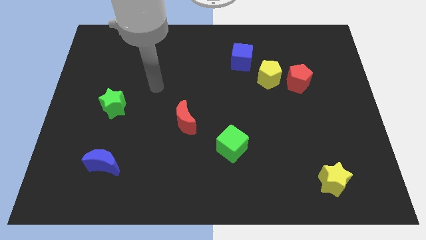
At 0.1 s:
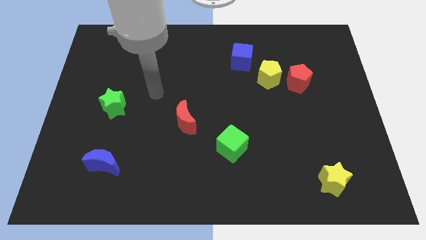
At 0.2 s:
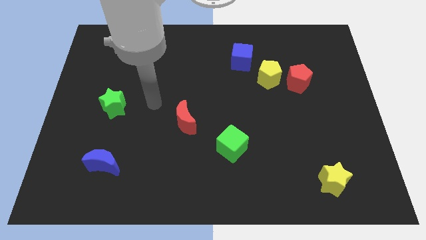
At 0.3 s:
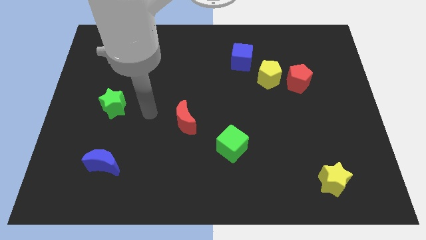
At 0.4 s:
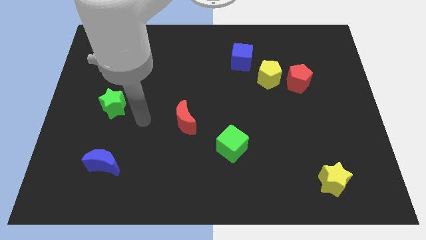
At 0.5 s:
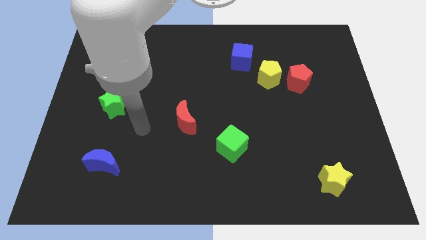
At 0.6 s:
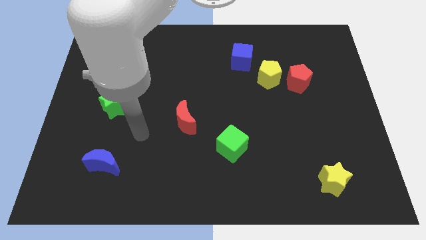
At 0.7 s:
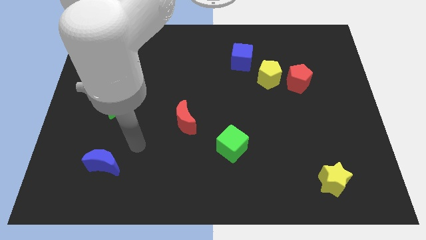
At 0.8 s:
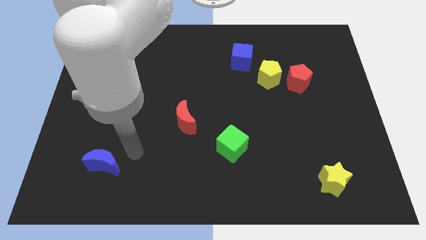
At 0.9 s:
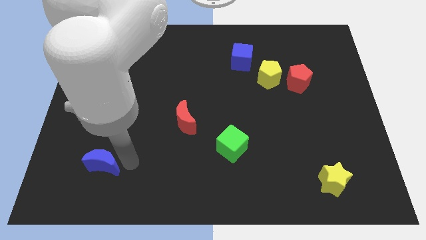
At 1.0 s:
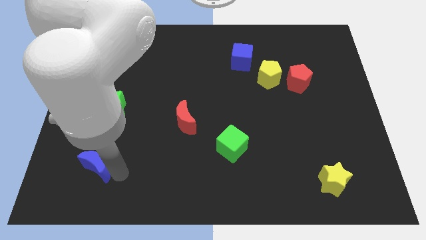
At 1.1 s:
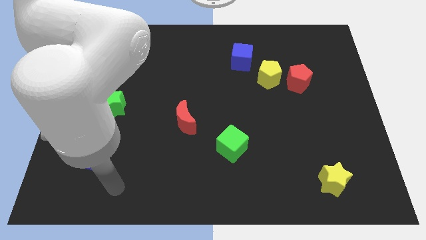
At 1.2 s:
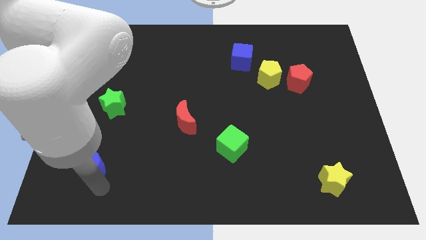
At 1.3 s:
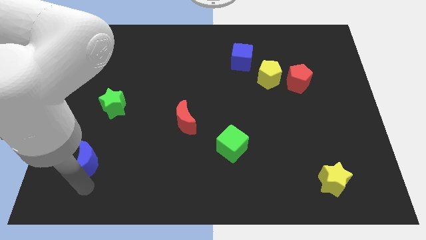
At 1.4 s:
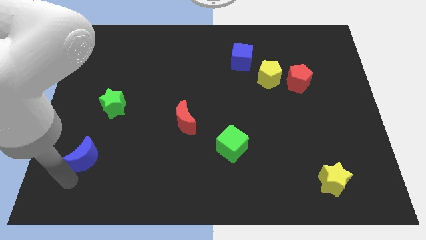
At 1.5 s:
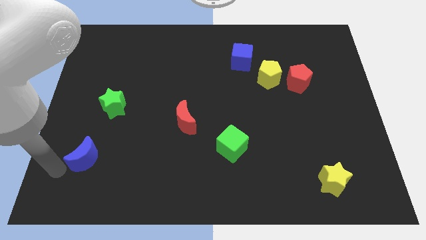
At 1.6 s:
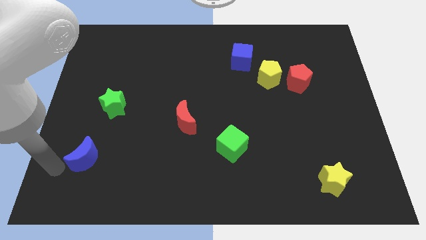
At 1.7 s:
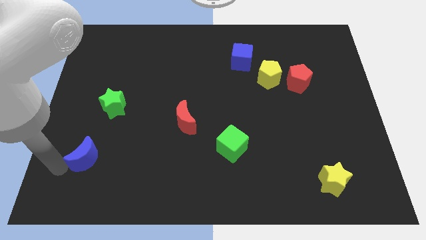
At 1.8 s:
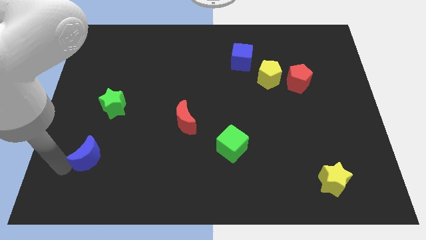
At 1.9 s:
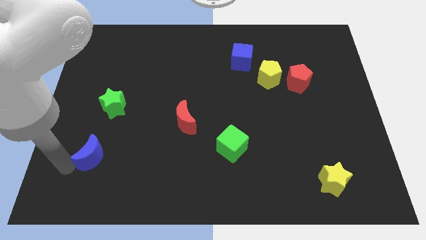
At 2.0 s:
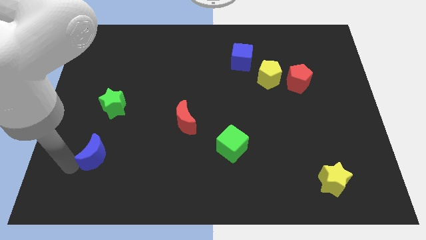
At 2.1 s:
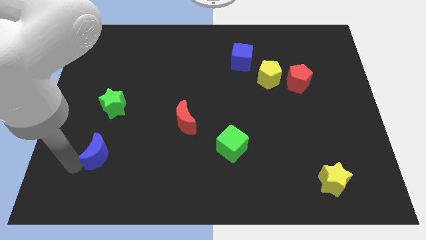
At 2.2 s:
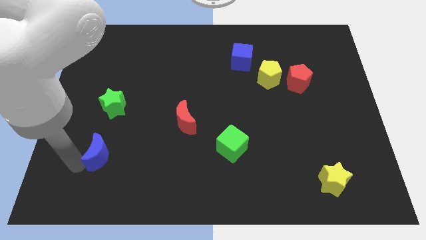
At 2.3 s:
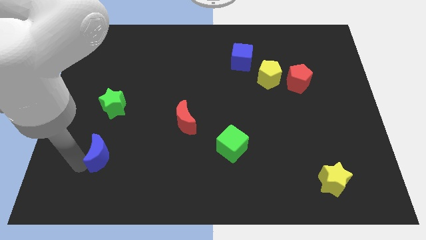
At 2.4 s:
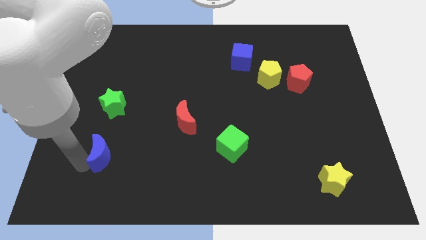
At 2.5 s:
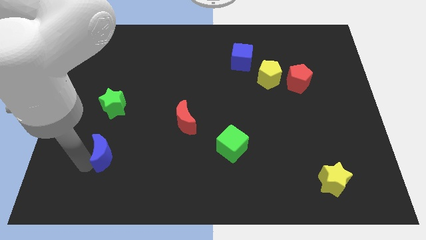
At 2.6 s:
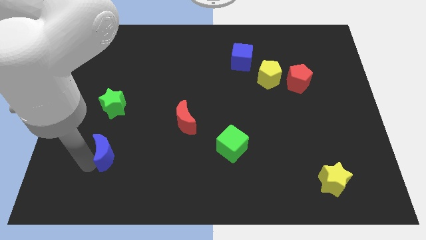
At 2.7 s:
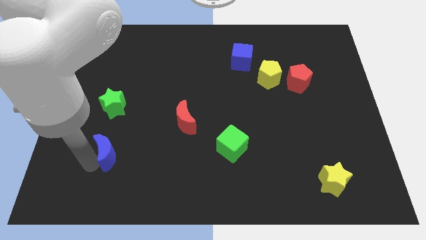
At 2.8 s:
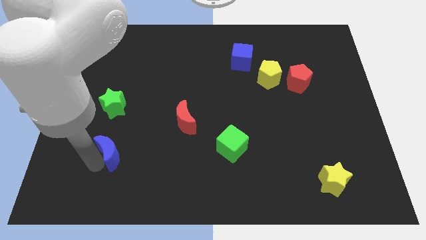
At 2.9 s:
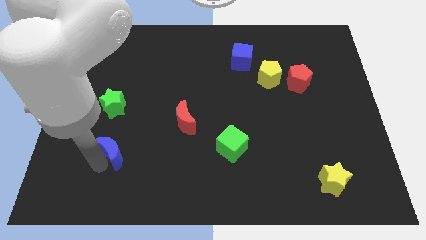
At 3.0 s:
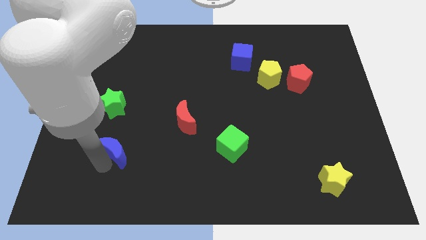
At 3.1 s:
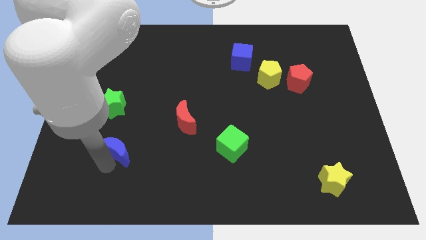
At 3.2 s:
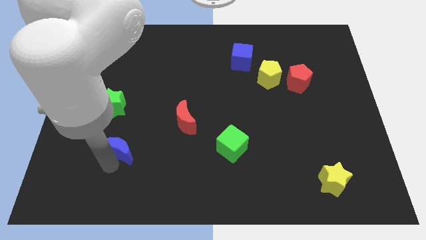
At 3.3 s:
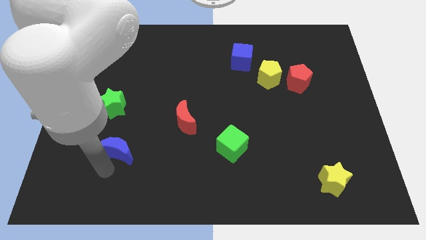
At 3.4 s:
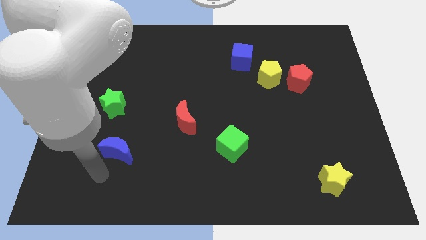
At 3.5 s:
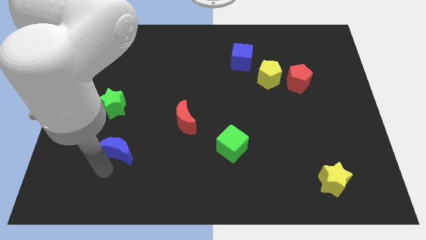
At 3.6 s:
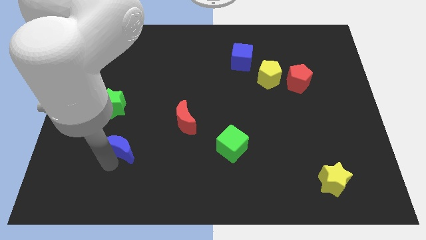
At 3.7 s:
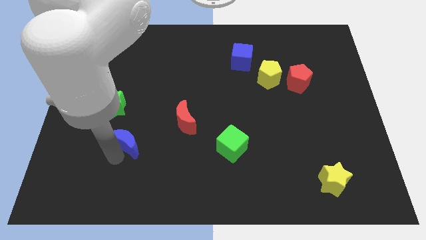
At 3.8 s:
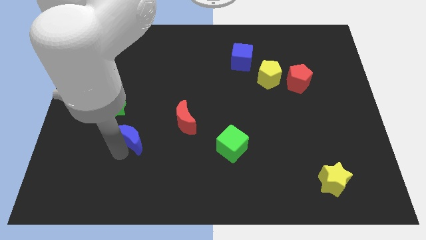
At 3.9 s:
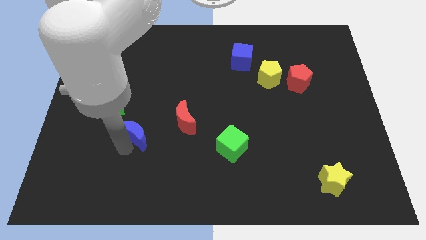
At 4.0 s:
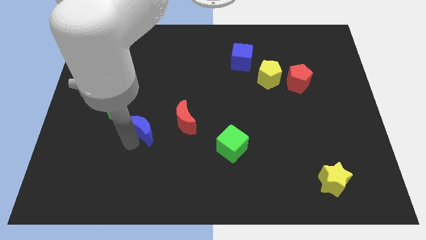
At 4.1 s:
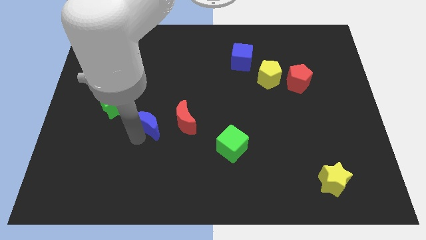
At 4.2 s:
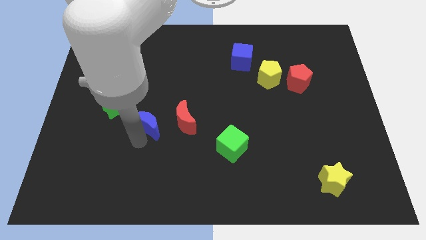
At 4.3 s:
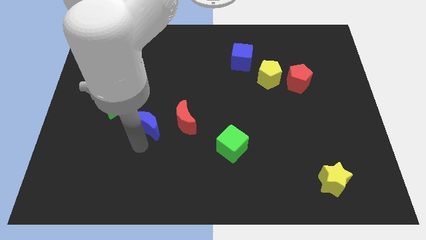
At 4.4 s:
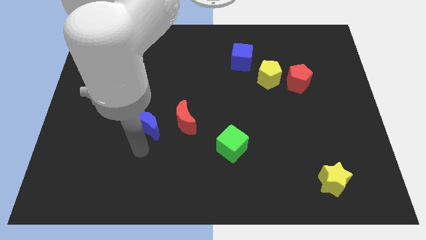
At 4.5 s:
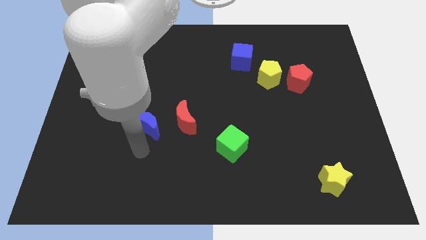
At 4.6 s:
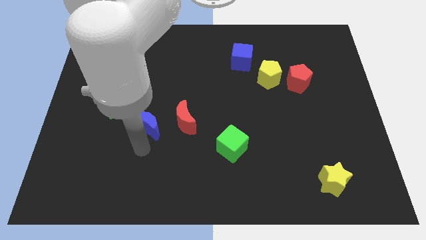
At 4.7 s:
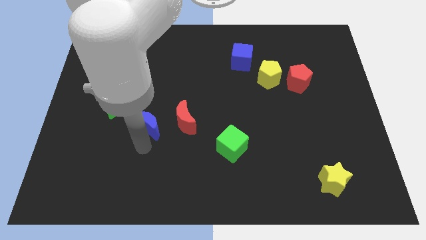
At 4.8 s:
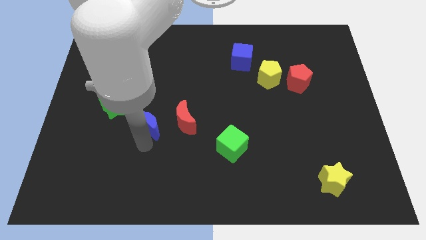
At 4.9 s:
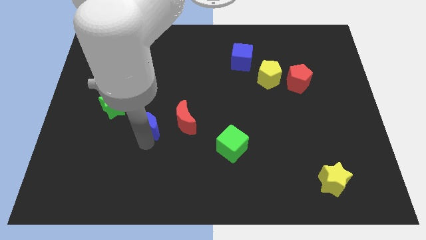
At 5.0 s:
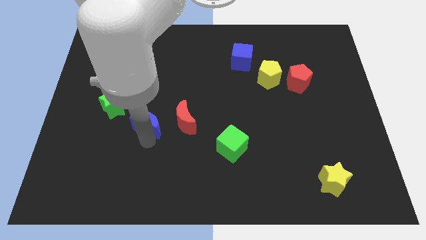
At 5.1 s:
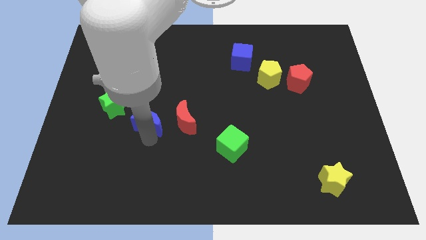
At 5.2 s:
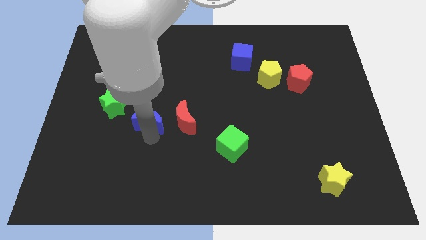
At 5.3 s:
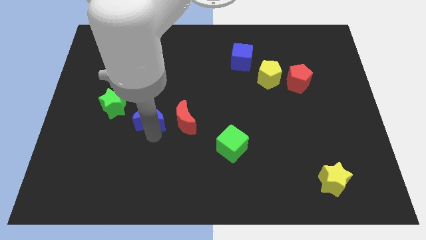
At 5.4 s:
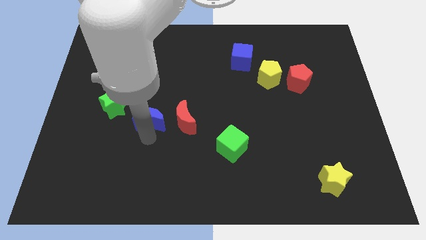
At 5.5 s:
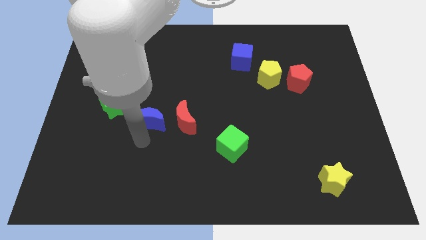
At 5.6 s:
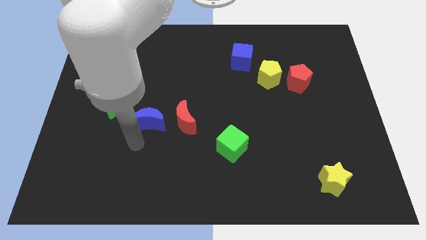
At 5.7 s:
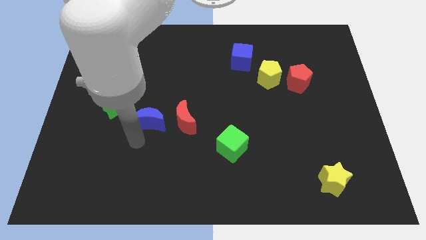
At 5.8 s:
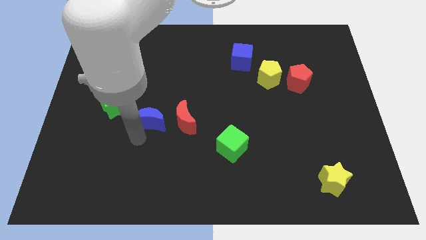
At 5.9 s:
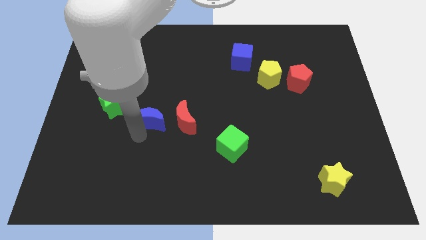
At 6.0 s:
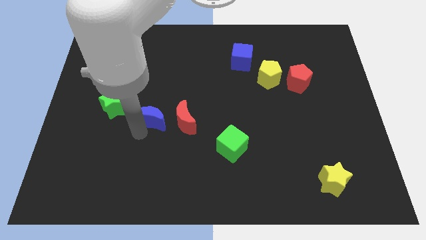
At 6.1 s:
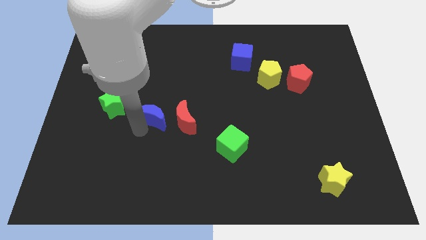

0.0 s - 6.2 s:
slide the blue moon to the top left side of the red moon
